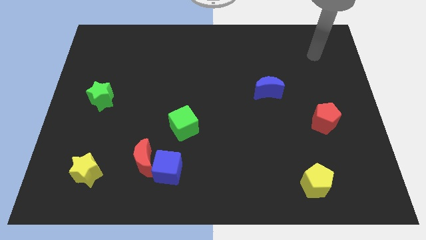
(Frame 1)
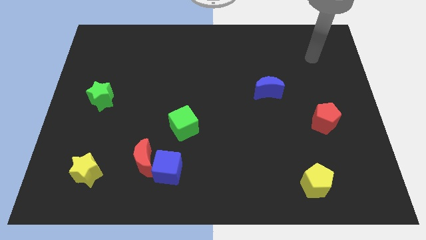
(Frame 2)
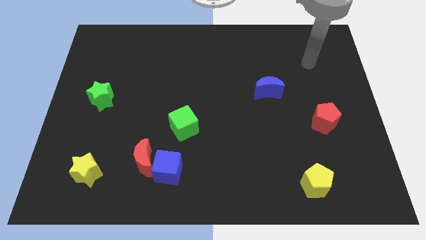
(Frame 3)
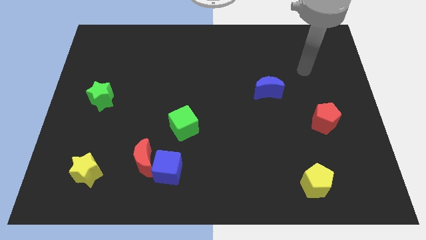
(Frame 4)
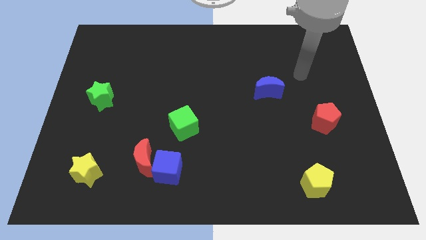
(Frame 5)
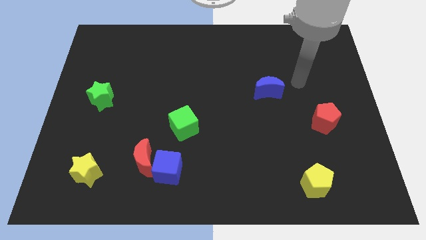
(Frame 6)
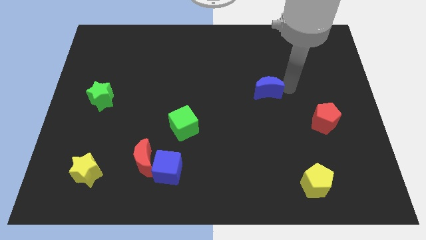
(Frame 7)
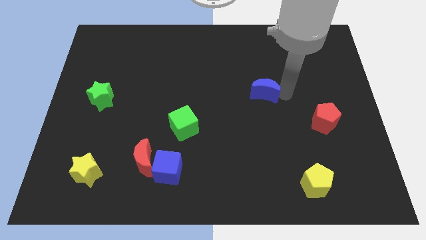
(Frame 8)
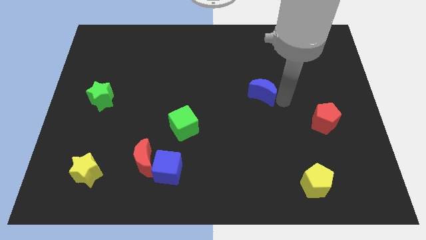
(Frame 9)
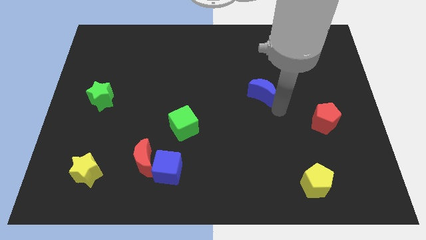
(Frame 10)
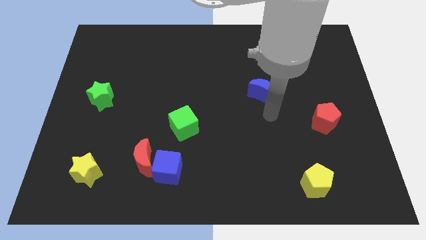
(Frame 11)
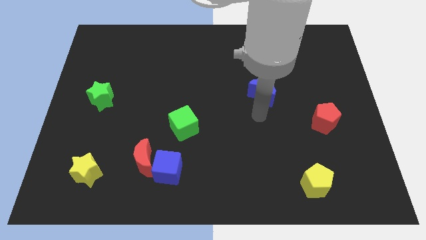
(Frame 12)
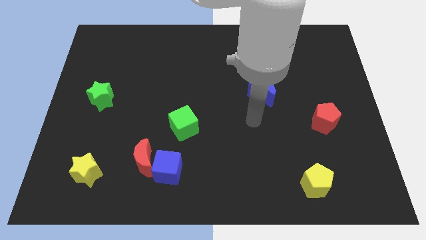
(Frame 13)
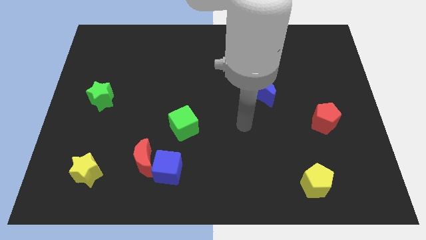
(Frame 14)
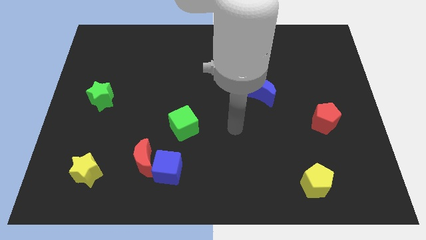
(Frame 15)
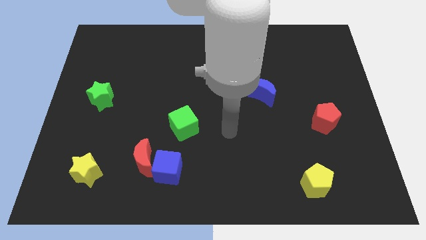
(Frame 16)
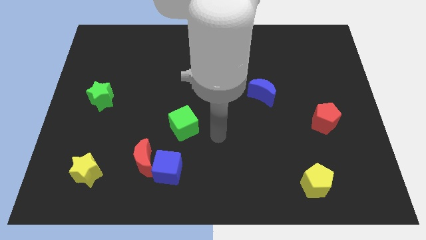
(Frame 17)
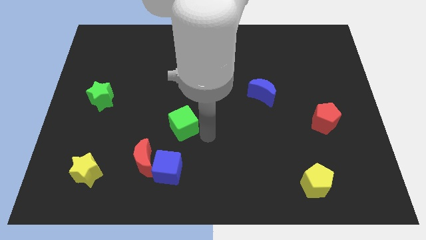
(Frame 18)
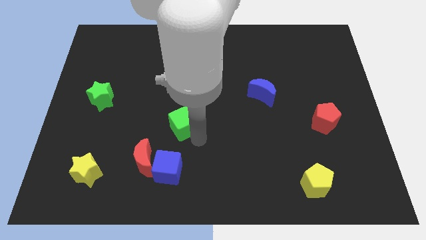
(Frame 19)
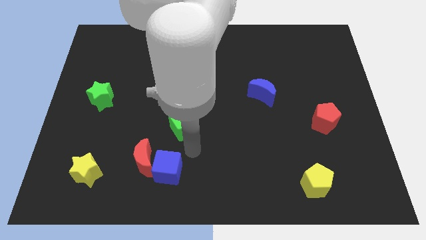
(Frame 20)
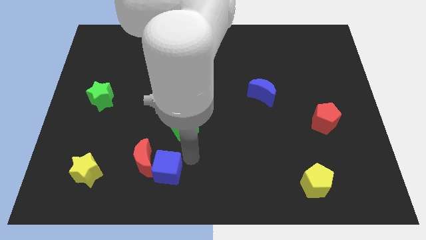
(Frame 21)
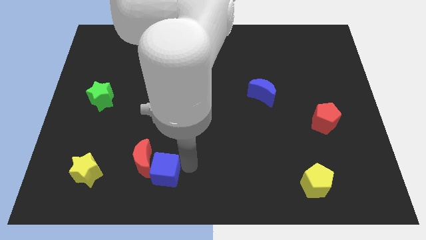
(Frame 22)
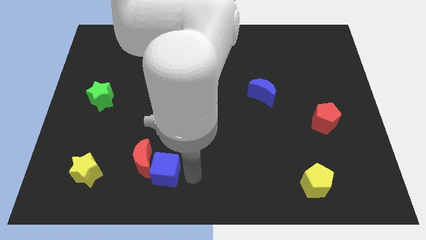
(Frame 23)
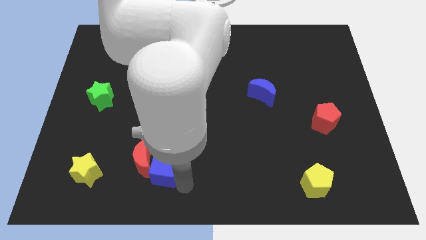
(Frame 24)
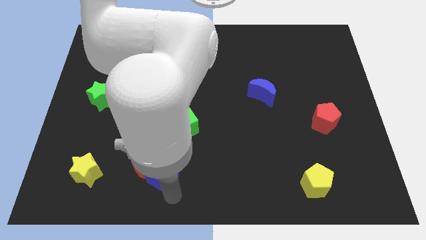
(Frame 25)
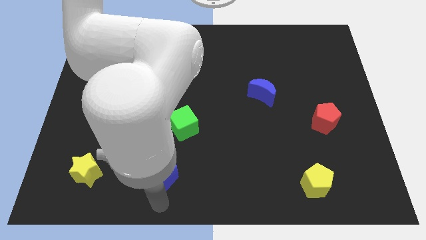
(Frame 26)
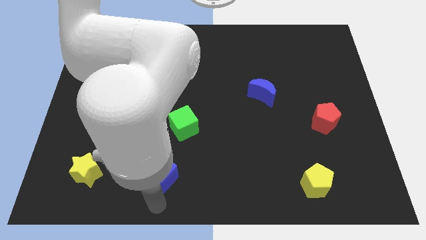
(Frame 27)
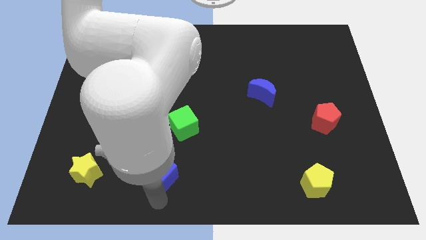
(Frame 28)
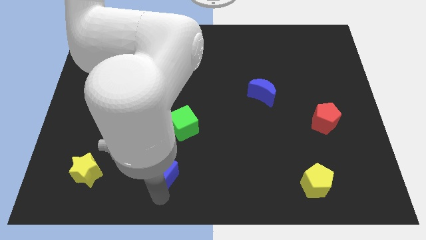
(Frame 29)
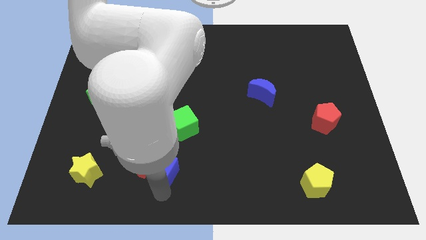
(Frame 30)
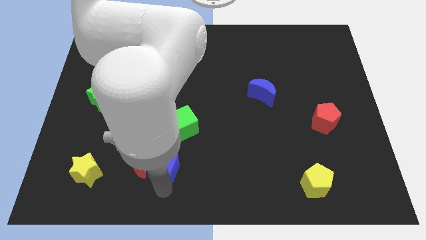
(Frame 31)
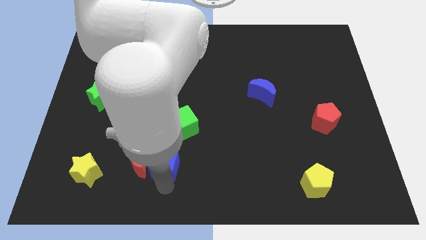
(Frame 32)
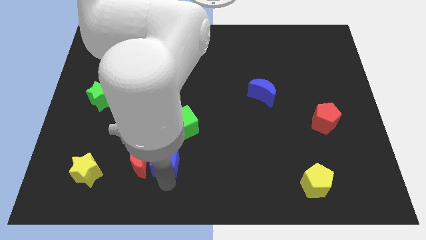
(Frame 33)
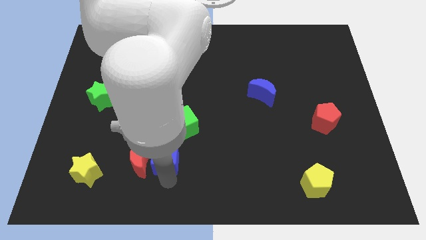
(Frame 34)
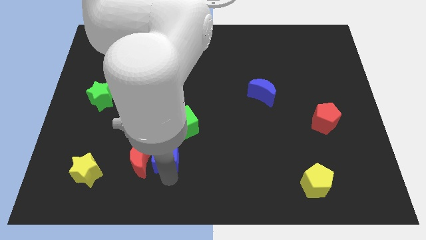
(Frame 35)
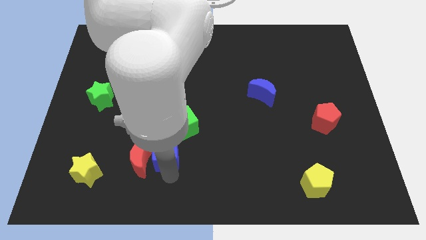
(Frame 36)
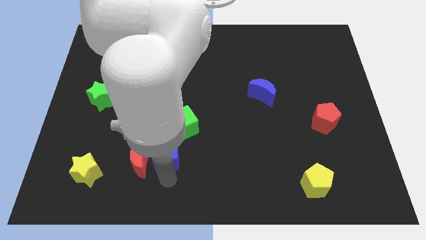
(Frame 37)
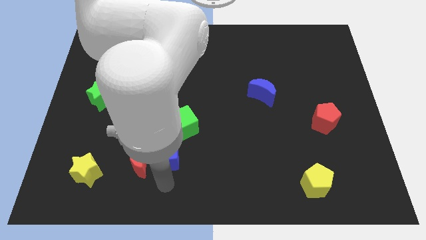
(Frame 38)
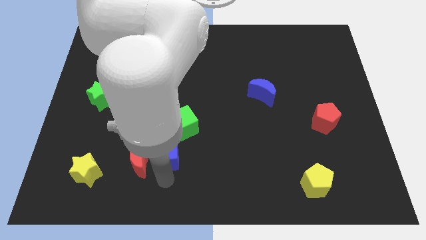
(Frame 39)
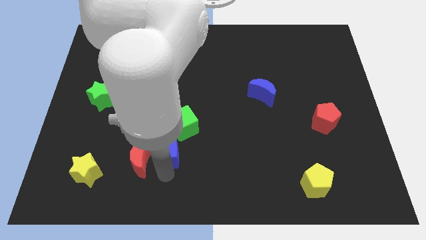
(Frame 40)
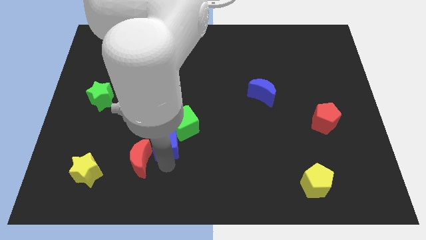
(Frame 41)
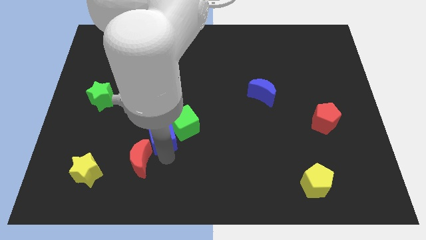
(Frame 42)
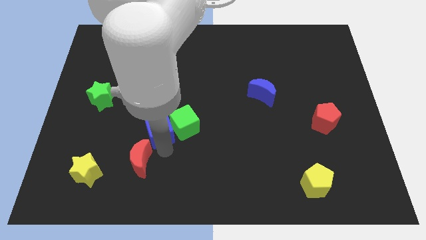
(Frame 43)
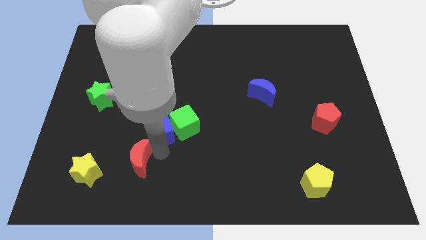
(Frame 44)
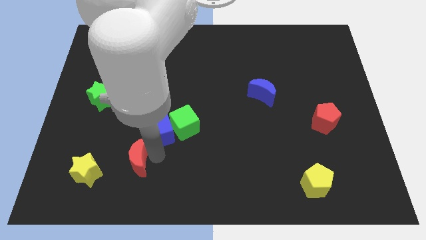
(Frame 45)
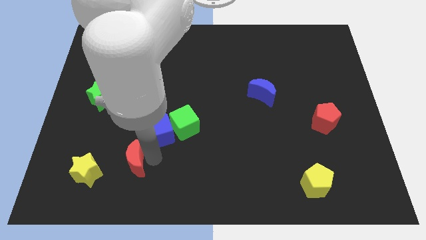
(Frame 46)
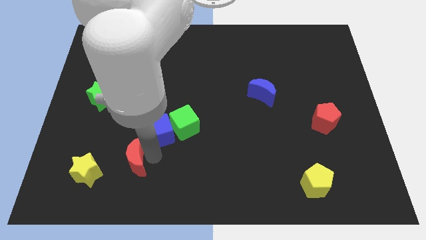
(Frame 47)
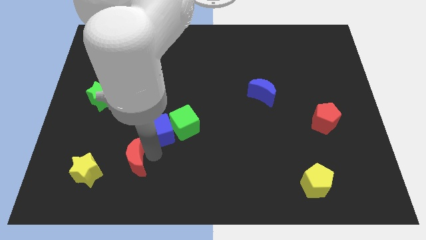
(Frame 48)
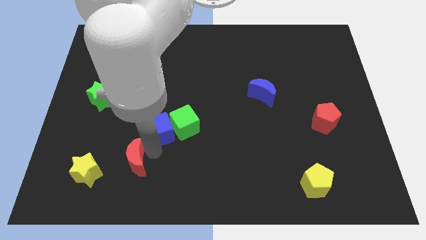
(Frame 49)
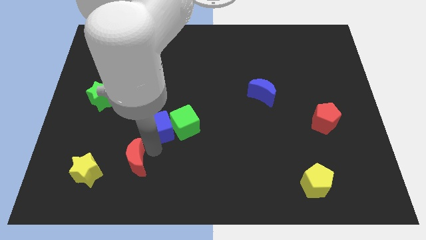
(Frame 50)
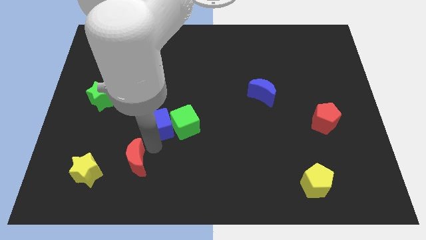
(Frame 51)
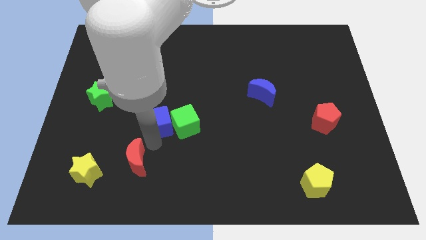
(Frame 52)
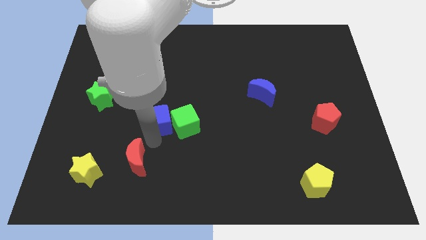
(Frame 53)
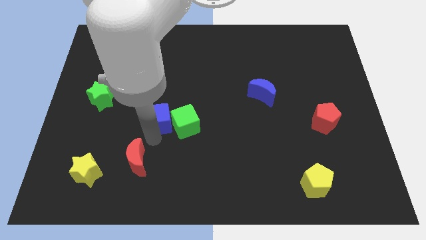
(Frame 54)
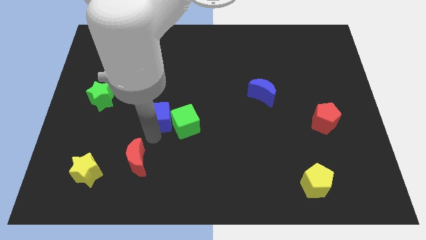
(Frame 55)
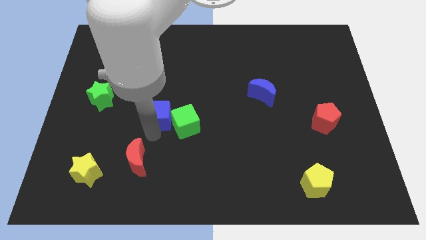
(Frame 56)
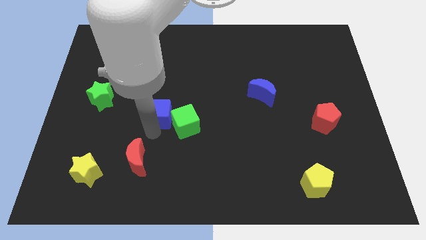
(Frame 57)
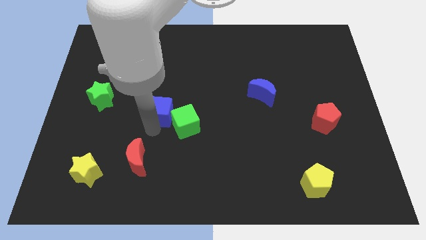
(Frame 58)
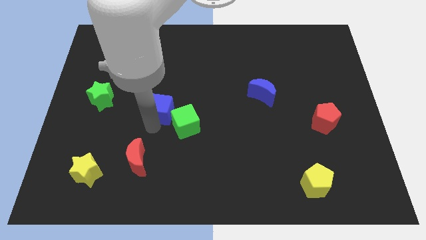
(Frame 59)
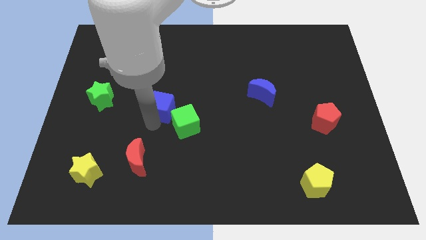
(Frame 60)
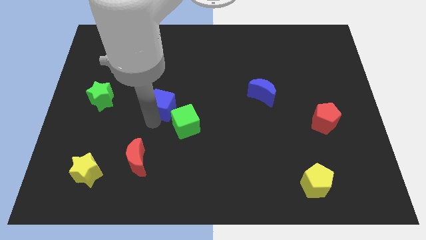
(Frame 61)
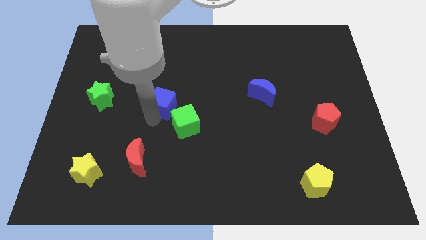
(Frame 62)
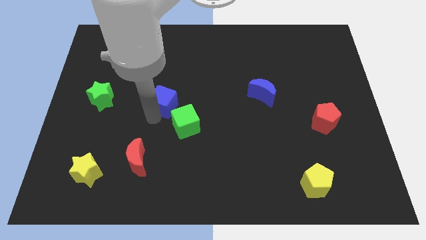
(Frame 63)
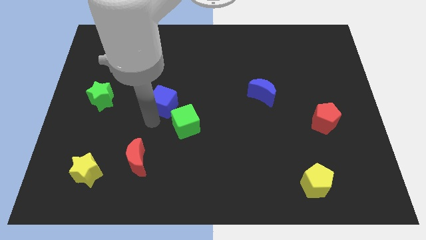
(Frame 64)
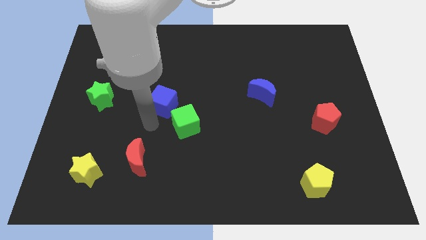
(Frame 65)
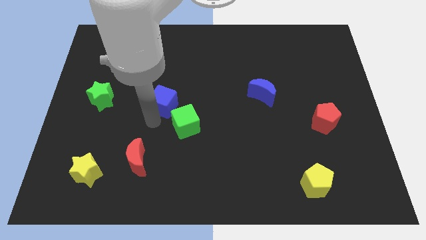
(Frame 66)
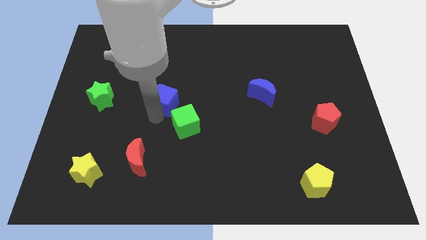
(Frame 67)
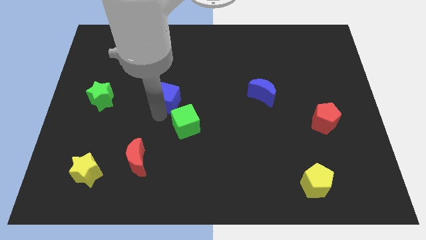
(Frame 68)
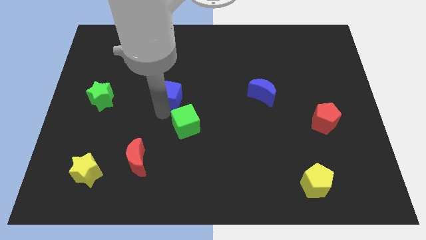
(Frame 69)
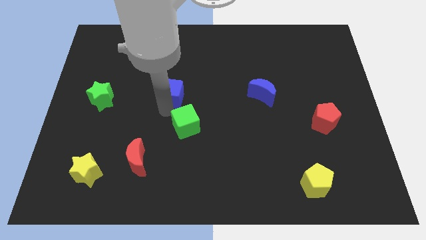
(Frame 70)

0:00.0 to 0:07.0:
push the blue cube up

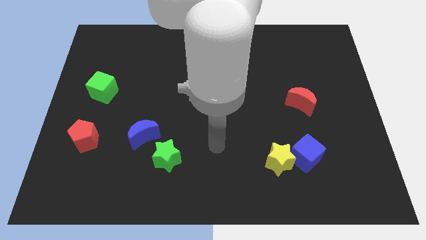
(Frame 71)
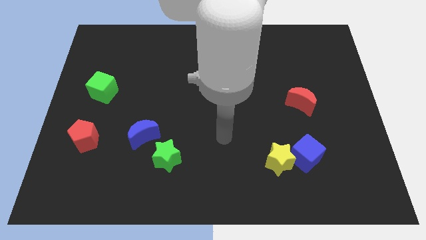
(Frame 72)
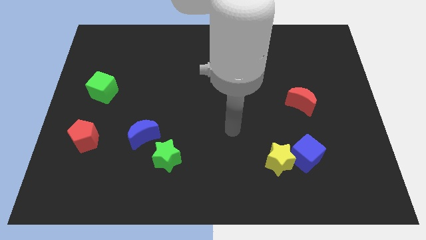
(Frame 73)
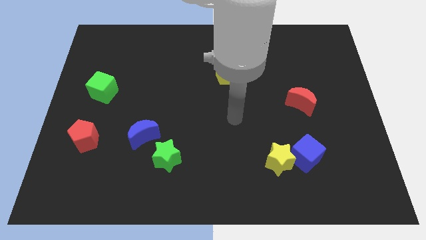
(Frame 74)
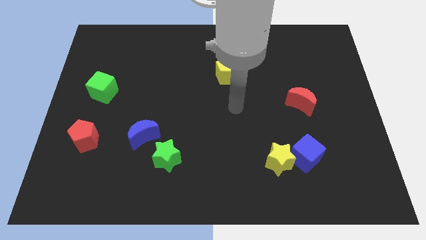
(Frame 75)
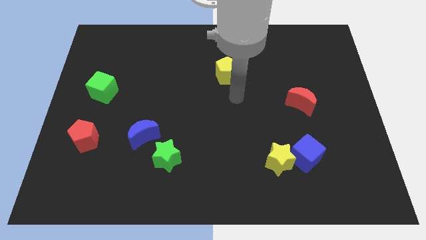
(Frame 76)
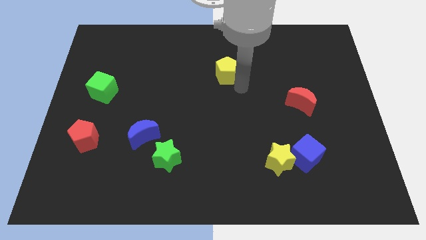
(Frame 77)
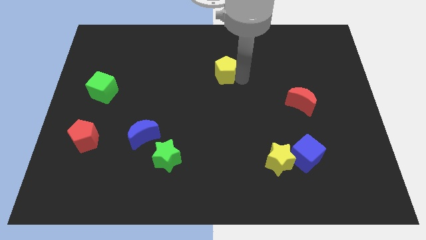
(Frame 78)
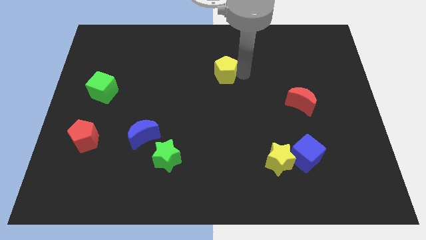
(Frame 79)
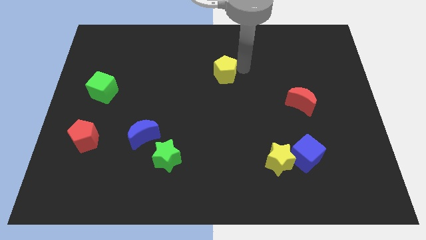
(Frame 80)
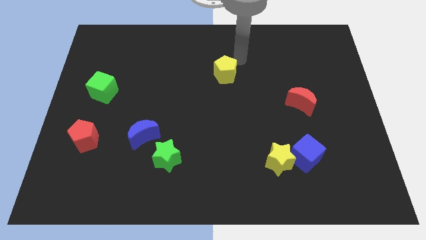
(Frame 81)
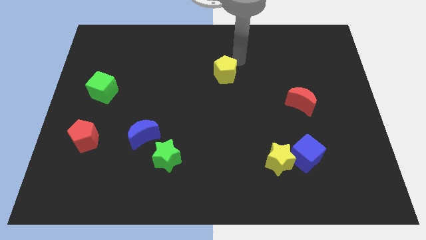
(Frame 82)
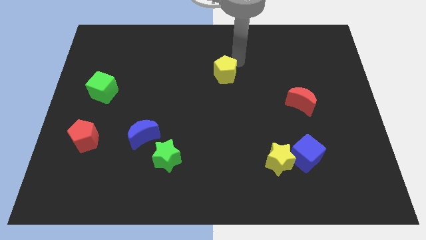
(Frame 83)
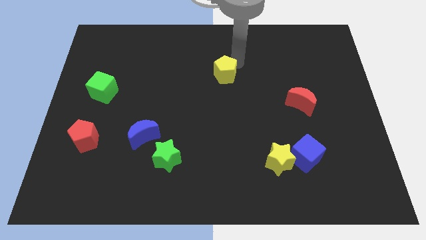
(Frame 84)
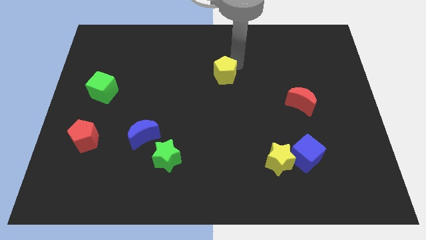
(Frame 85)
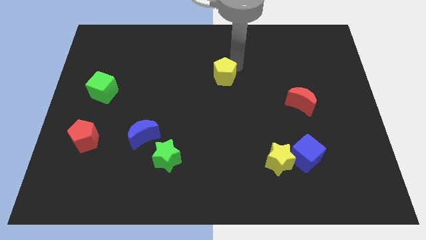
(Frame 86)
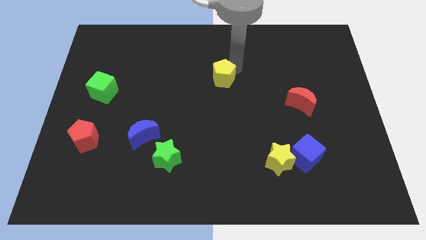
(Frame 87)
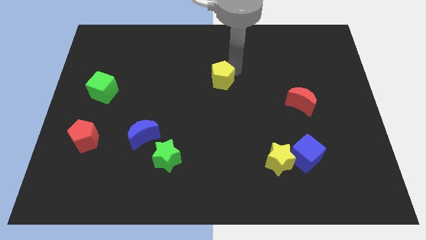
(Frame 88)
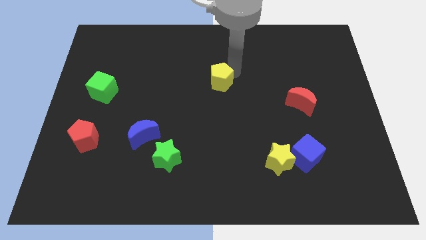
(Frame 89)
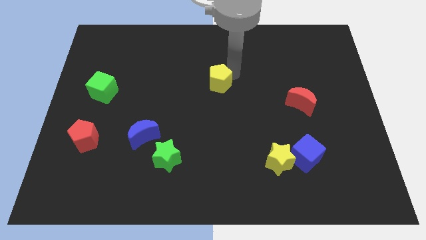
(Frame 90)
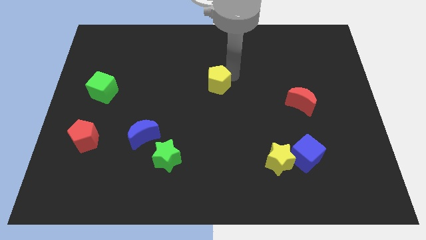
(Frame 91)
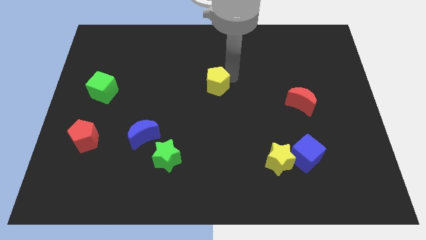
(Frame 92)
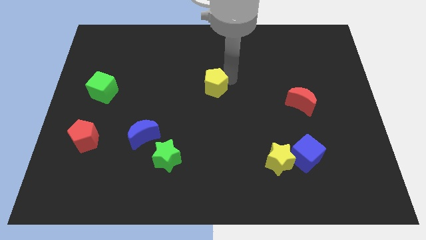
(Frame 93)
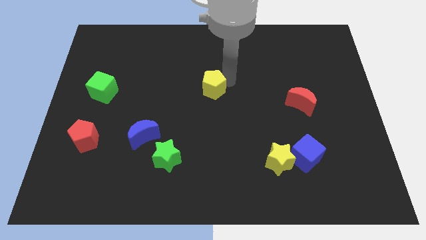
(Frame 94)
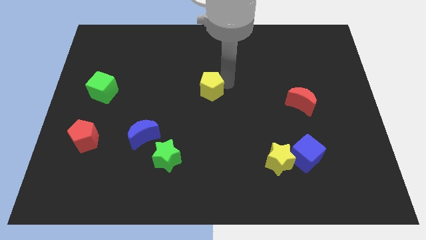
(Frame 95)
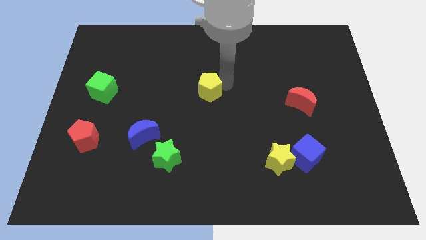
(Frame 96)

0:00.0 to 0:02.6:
move the yellow pentagon down and then left somewhat
